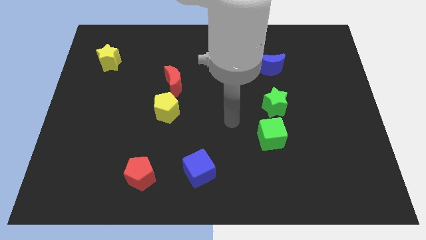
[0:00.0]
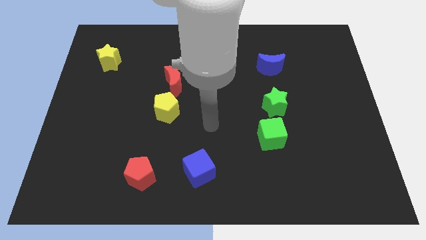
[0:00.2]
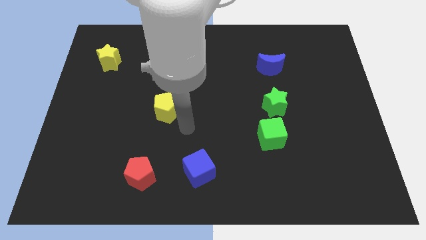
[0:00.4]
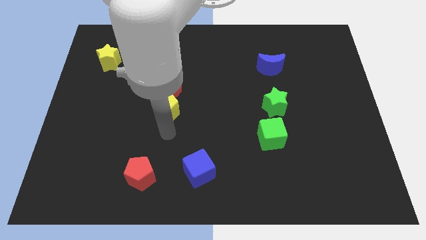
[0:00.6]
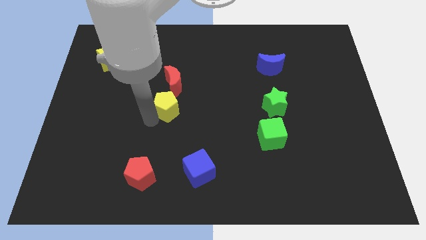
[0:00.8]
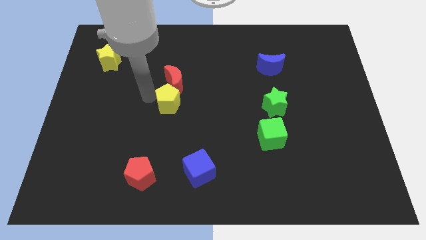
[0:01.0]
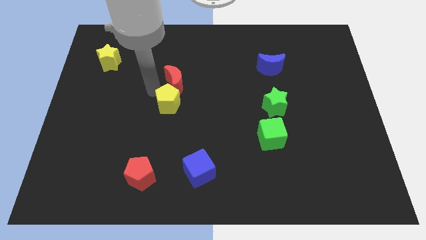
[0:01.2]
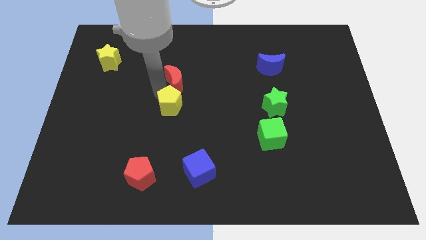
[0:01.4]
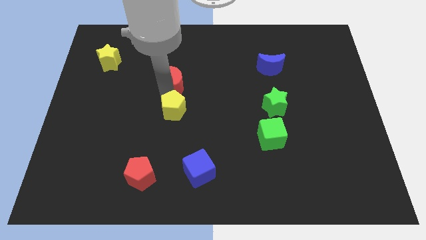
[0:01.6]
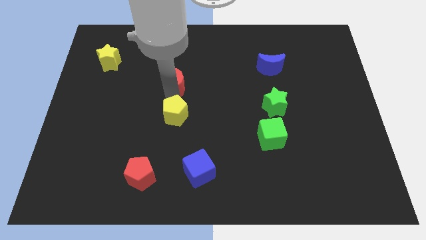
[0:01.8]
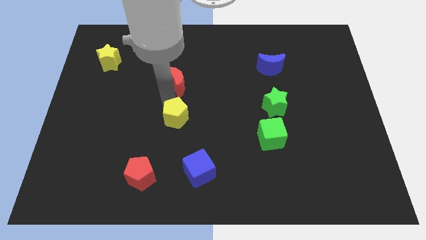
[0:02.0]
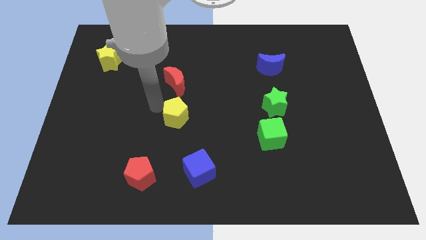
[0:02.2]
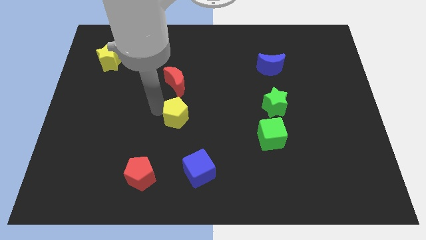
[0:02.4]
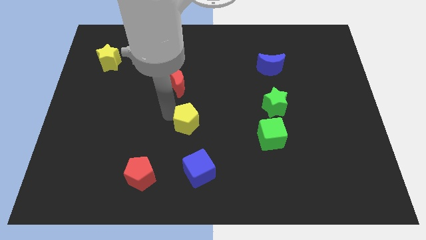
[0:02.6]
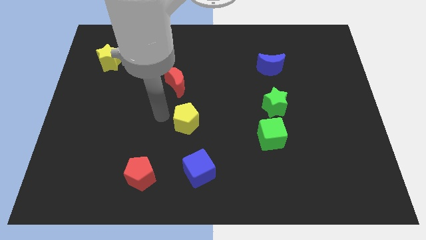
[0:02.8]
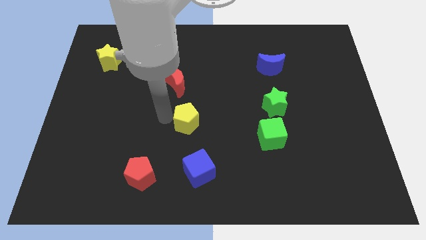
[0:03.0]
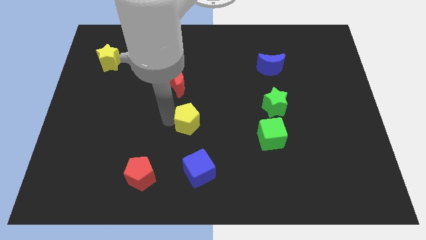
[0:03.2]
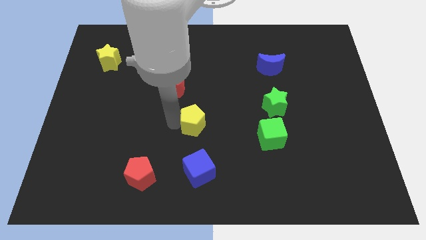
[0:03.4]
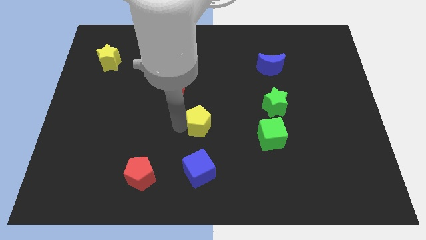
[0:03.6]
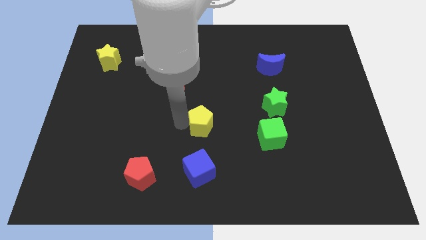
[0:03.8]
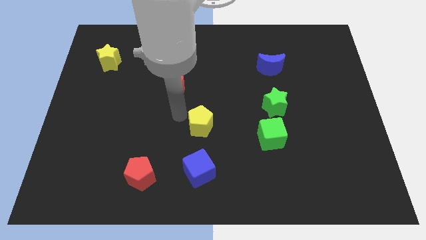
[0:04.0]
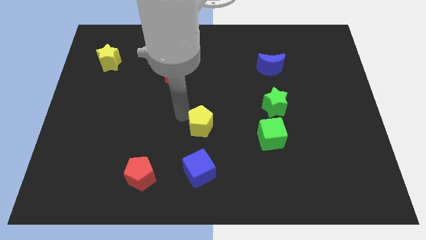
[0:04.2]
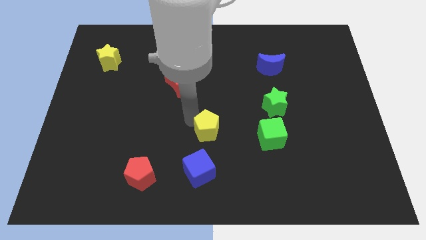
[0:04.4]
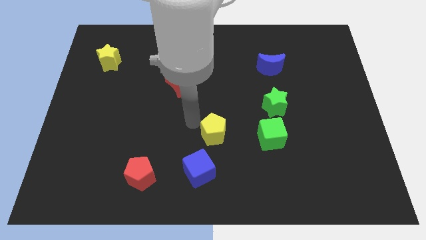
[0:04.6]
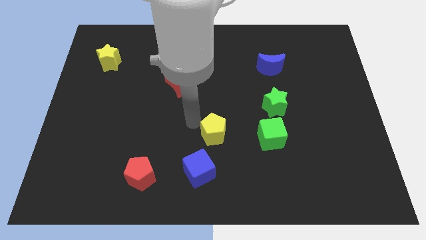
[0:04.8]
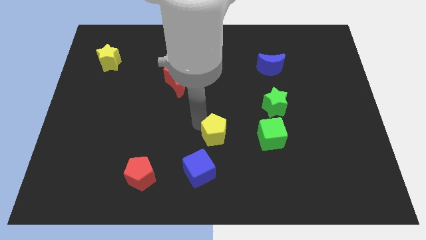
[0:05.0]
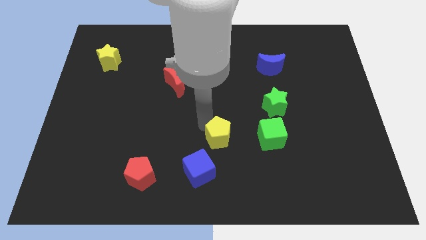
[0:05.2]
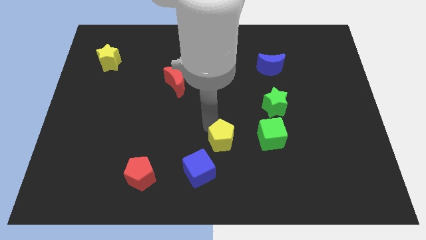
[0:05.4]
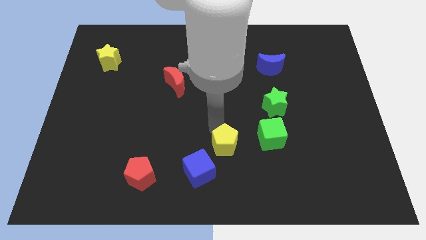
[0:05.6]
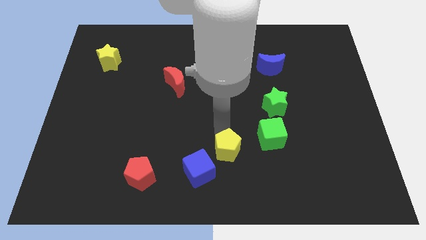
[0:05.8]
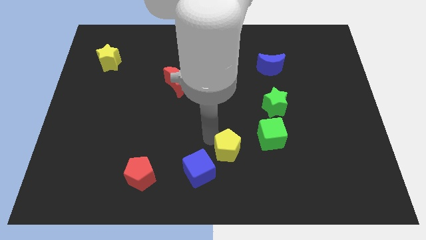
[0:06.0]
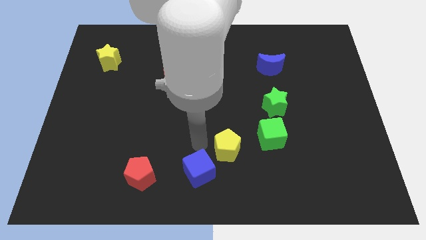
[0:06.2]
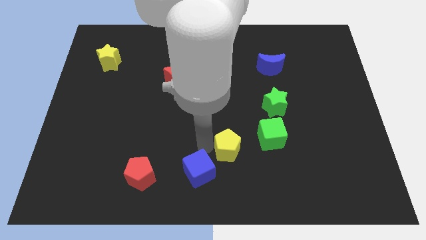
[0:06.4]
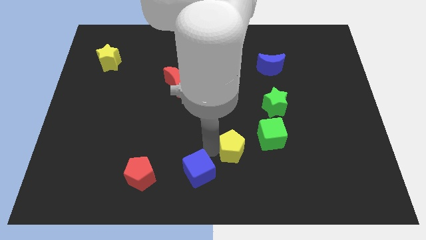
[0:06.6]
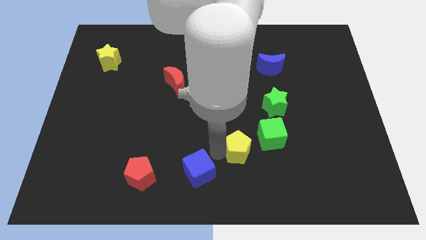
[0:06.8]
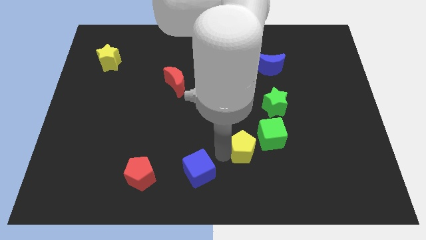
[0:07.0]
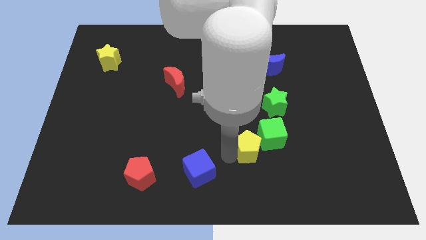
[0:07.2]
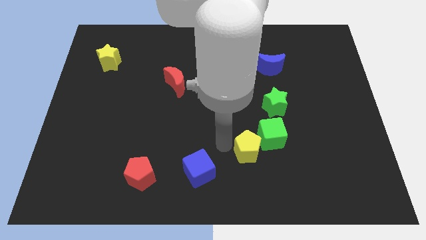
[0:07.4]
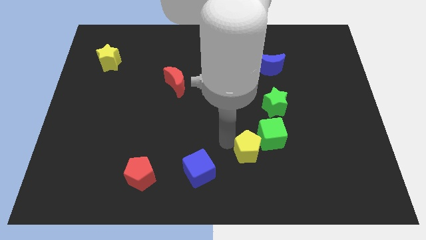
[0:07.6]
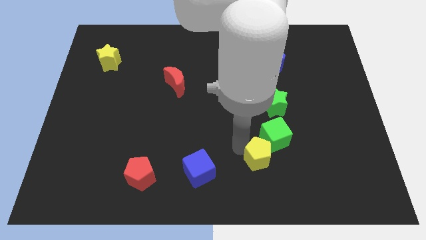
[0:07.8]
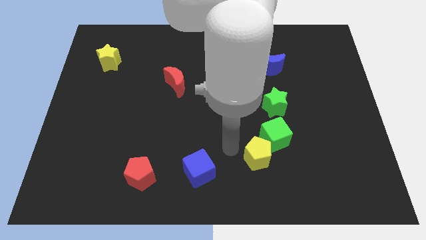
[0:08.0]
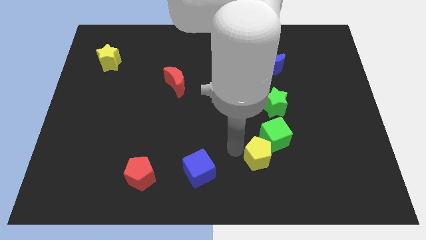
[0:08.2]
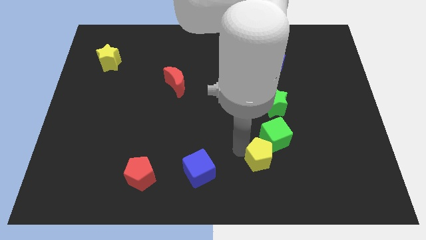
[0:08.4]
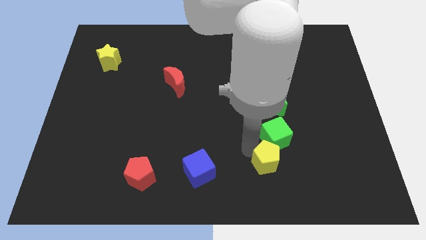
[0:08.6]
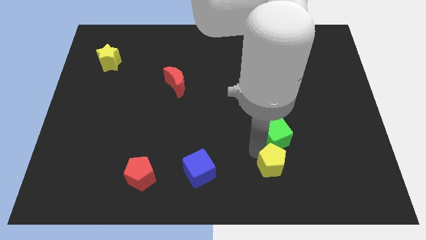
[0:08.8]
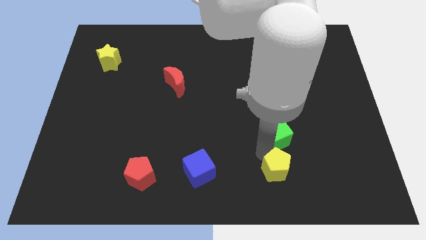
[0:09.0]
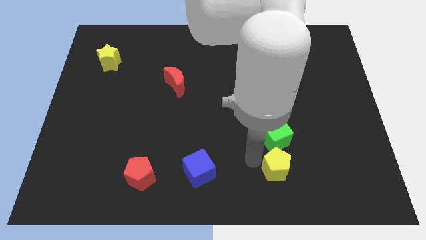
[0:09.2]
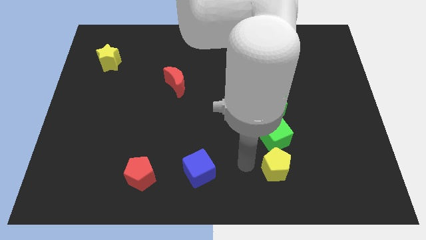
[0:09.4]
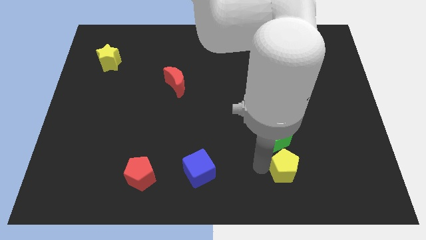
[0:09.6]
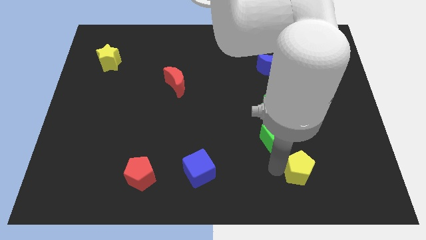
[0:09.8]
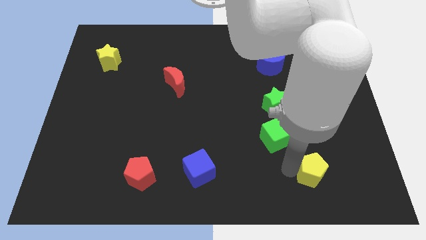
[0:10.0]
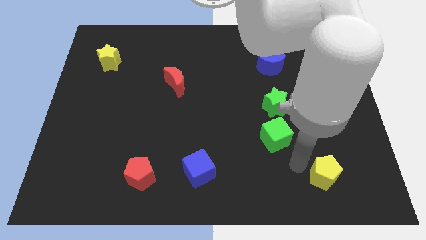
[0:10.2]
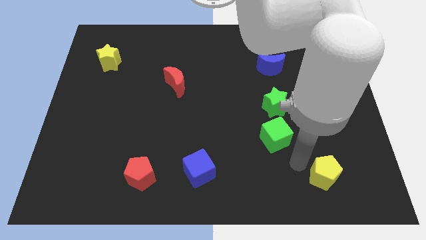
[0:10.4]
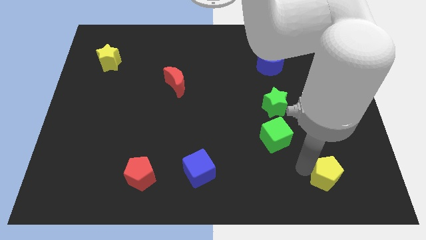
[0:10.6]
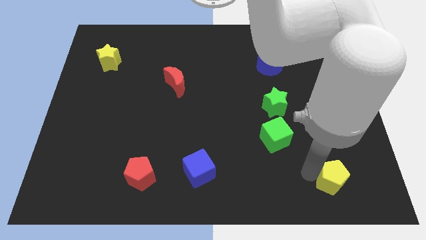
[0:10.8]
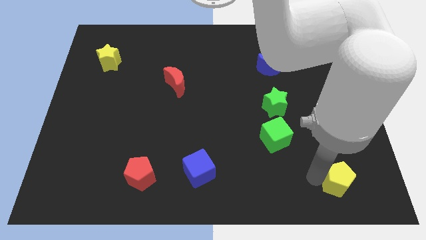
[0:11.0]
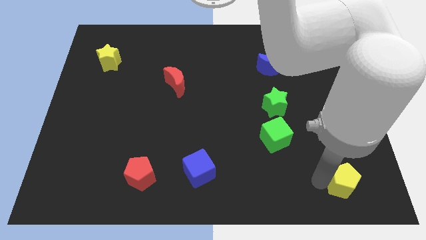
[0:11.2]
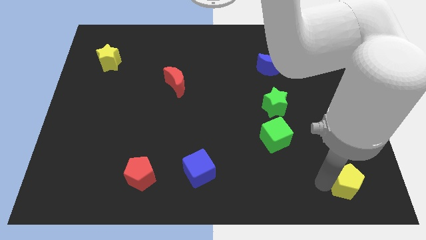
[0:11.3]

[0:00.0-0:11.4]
push the yellow pentagon to the bottom right of the board

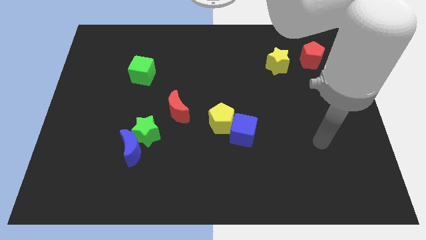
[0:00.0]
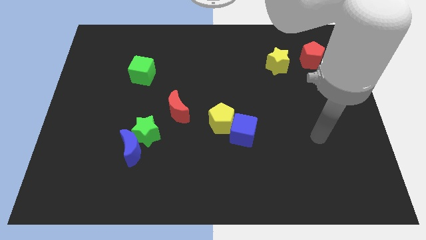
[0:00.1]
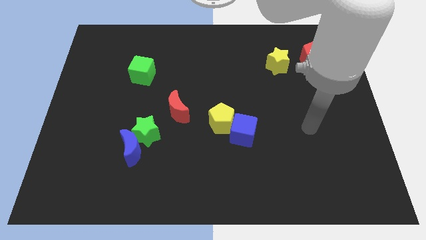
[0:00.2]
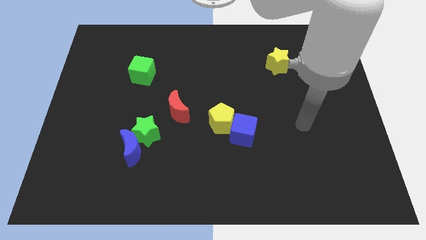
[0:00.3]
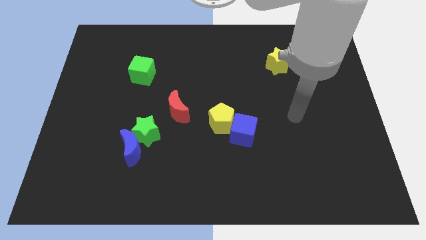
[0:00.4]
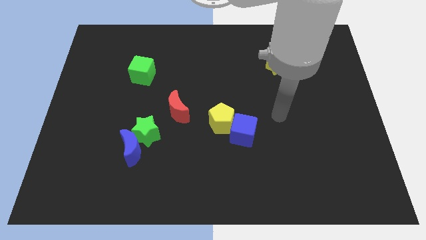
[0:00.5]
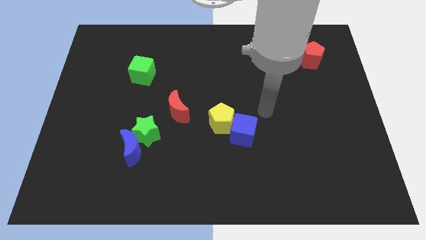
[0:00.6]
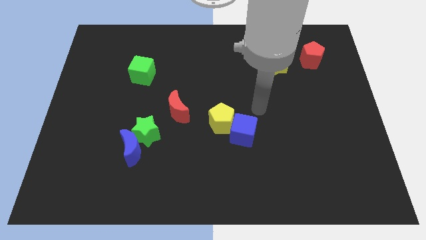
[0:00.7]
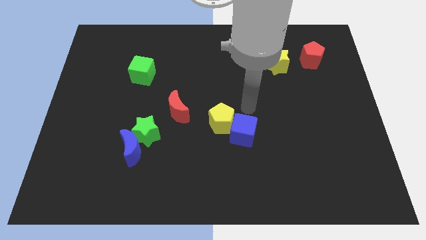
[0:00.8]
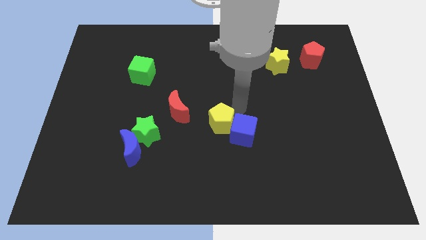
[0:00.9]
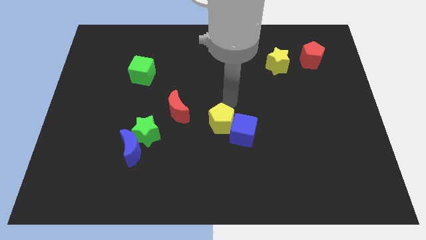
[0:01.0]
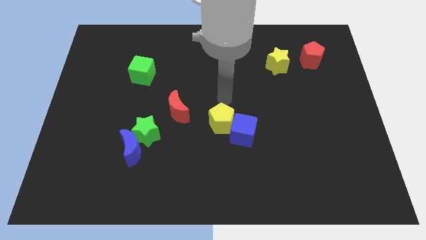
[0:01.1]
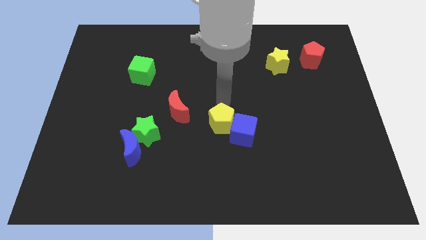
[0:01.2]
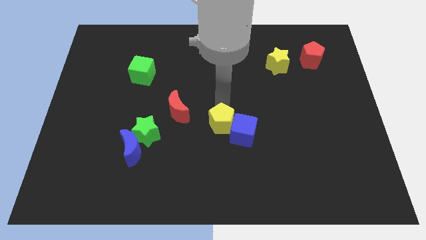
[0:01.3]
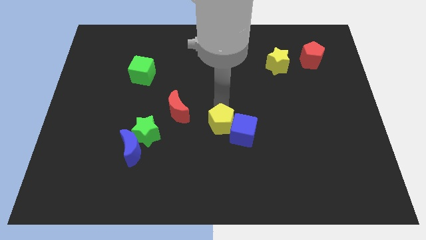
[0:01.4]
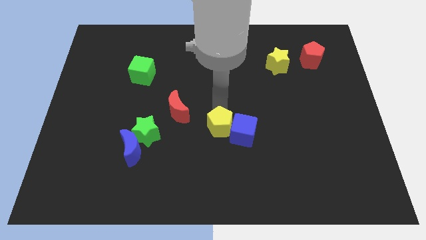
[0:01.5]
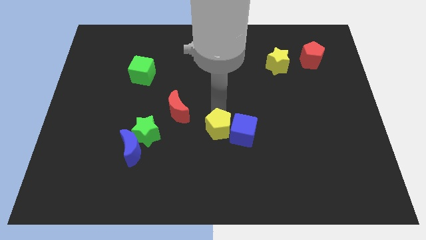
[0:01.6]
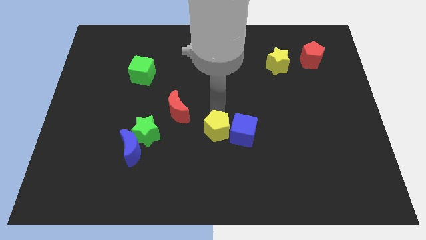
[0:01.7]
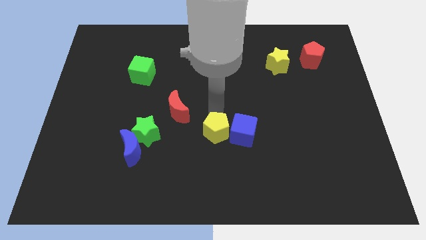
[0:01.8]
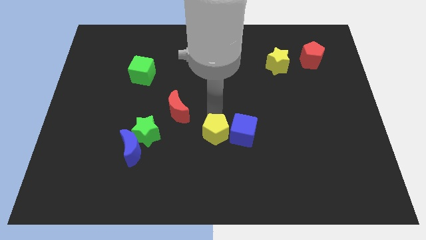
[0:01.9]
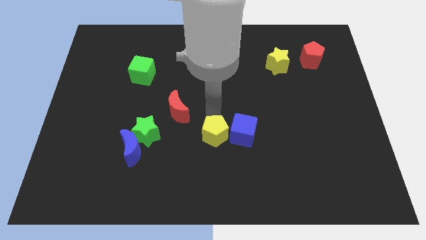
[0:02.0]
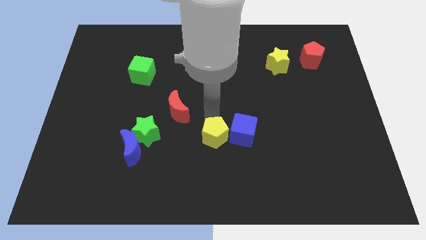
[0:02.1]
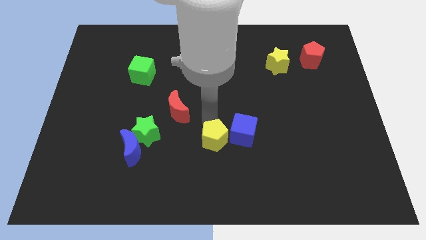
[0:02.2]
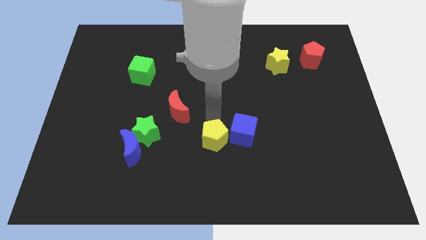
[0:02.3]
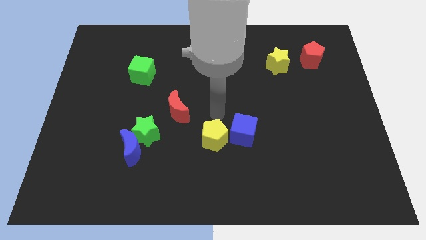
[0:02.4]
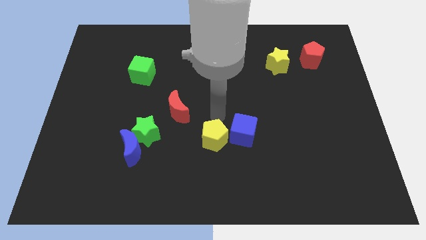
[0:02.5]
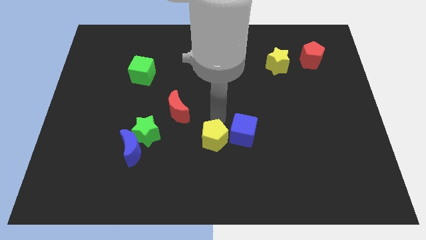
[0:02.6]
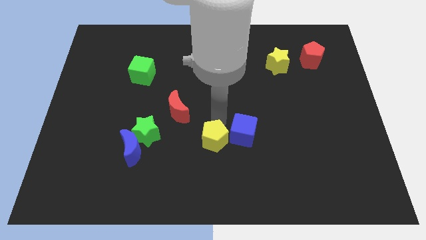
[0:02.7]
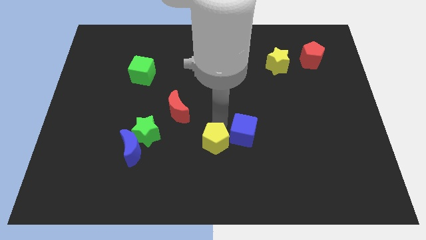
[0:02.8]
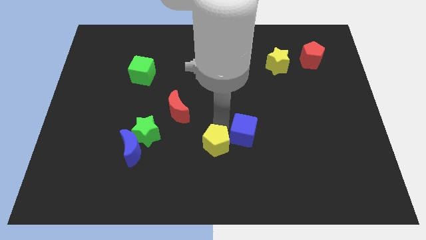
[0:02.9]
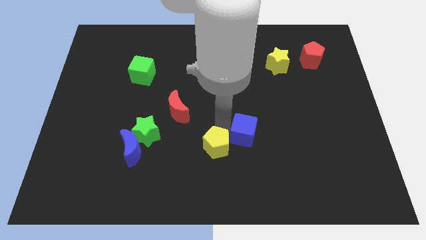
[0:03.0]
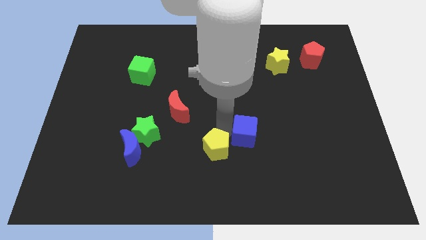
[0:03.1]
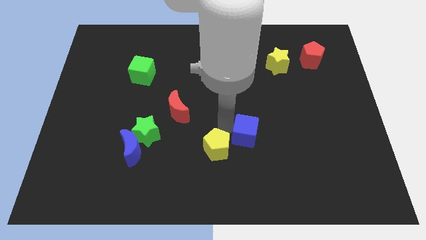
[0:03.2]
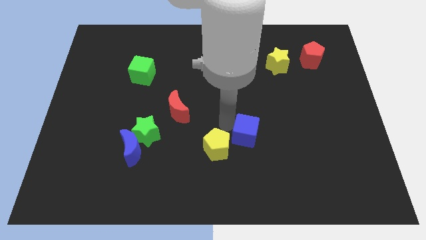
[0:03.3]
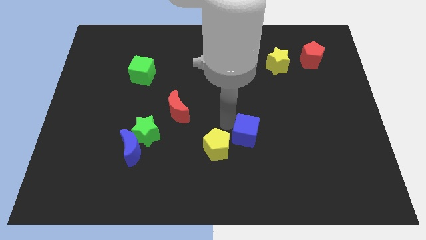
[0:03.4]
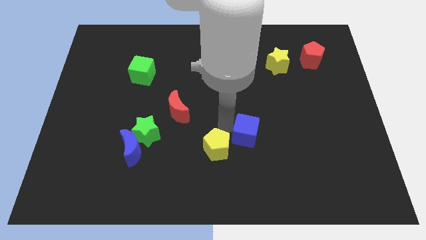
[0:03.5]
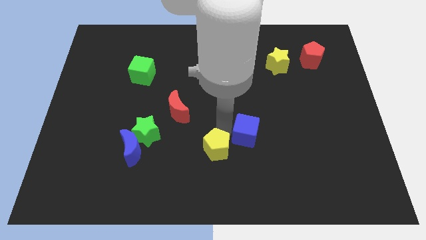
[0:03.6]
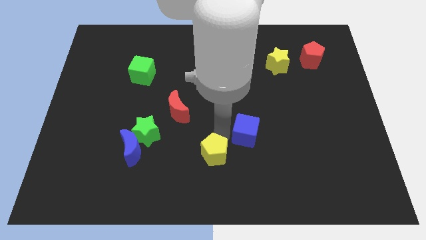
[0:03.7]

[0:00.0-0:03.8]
put the yellow pentagon to the bottom side
